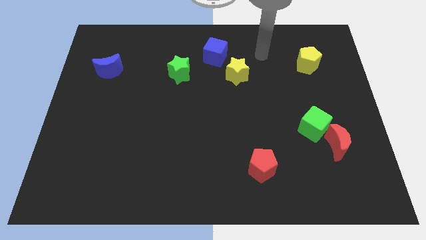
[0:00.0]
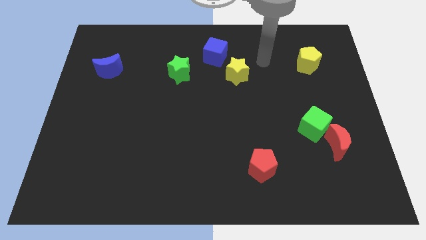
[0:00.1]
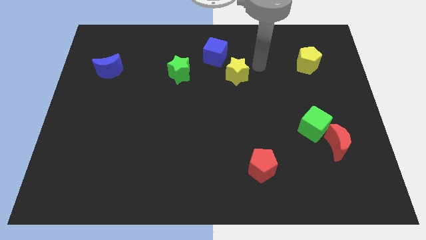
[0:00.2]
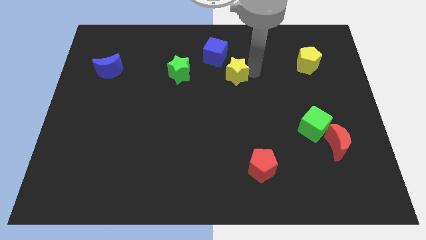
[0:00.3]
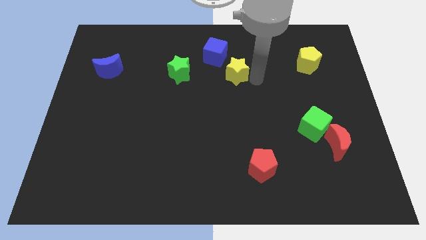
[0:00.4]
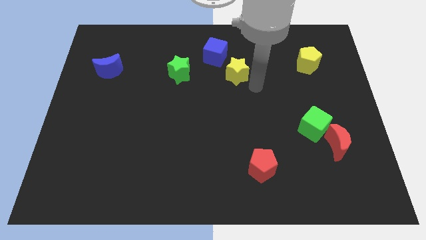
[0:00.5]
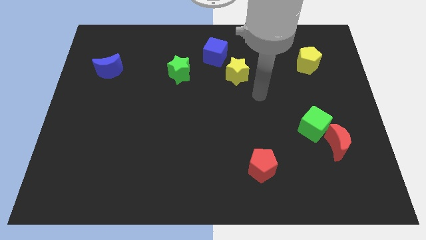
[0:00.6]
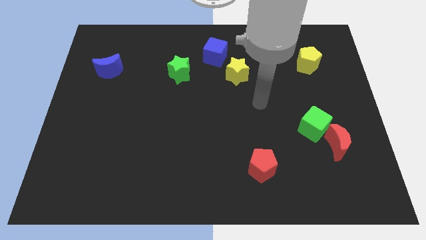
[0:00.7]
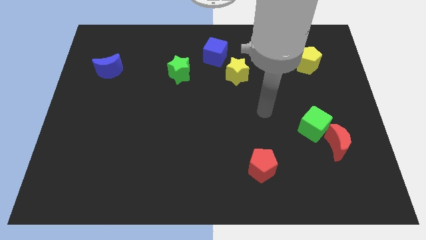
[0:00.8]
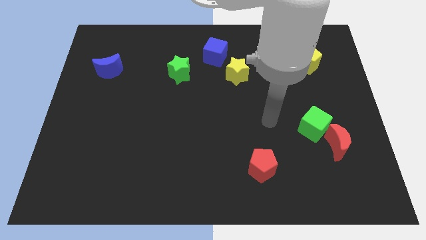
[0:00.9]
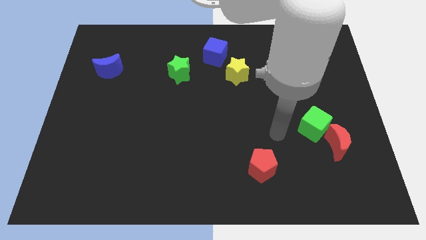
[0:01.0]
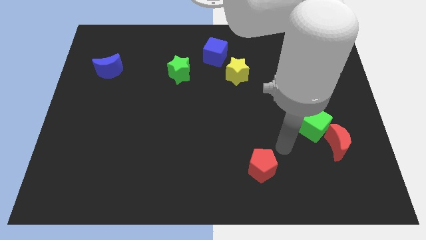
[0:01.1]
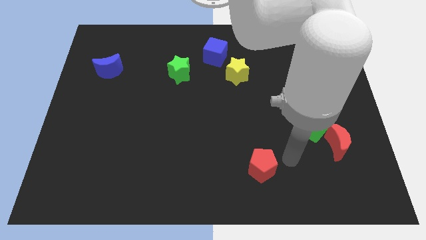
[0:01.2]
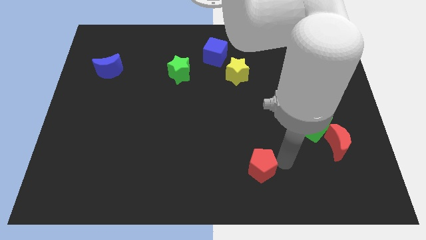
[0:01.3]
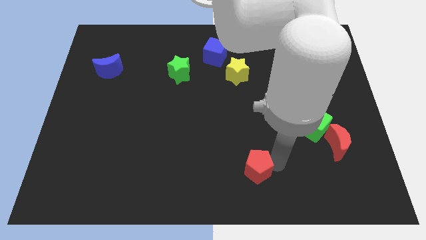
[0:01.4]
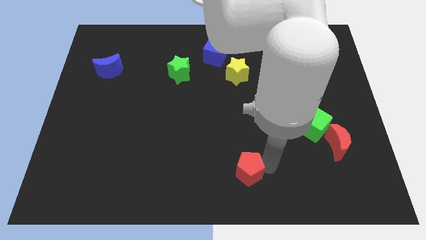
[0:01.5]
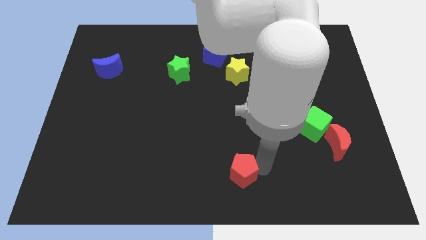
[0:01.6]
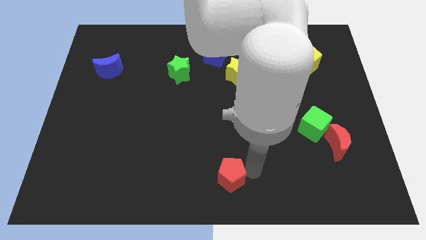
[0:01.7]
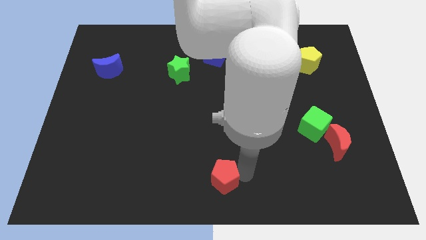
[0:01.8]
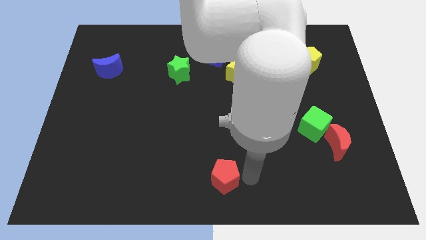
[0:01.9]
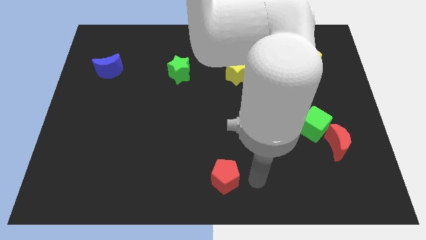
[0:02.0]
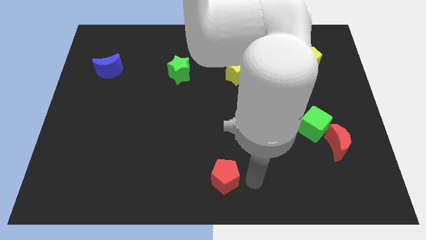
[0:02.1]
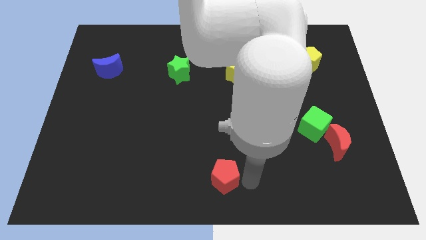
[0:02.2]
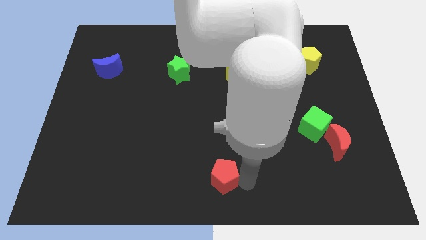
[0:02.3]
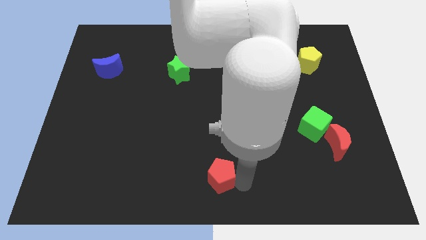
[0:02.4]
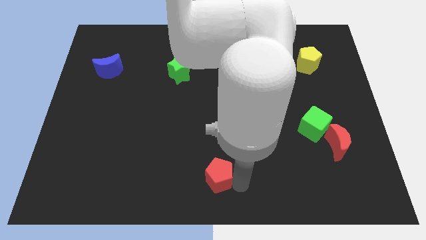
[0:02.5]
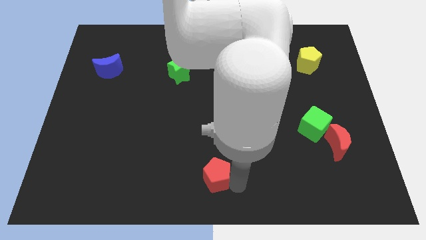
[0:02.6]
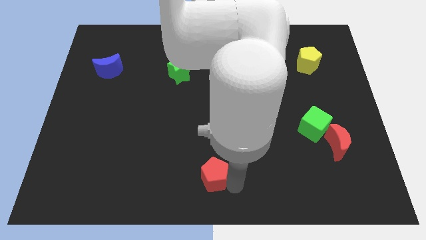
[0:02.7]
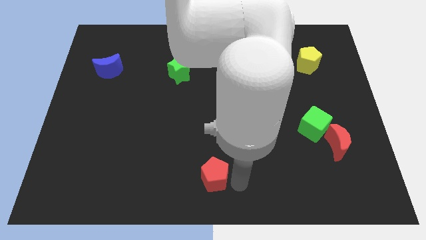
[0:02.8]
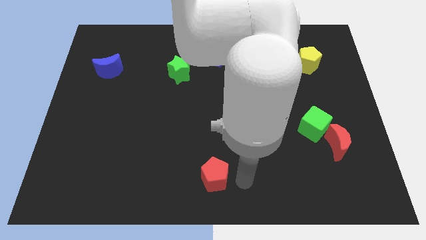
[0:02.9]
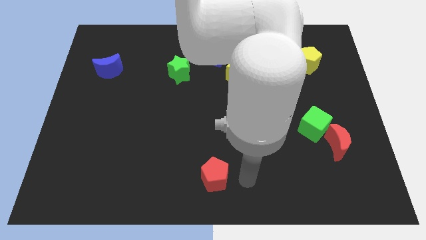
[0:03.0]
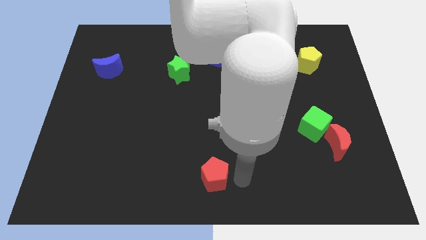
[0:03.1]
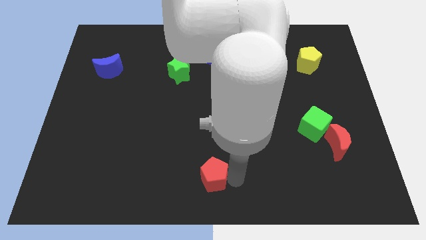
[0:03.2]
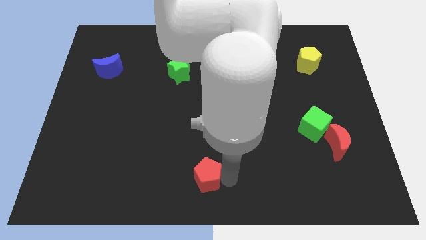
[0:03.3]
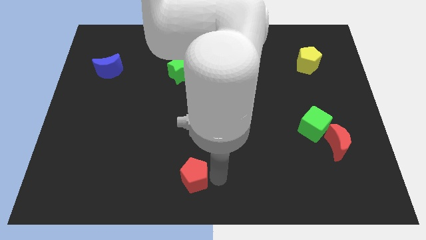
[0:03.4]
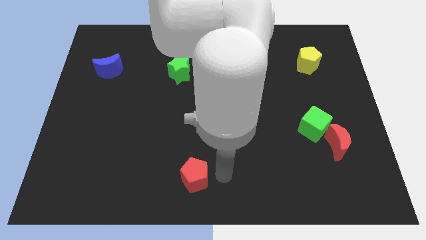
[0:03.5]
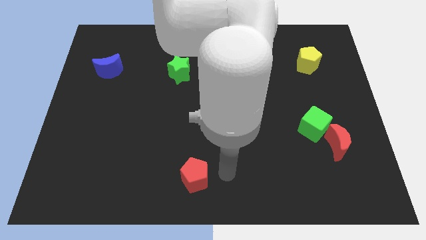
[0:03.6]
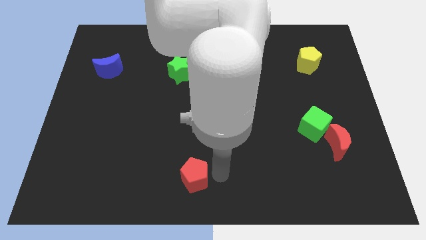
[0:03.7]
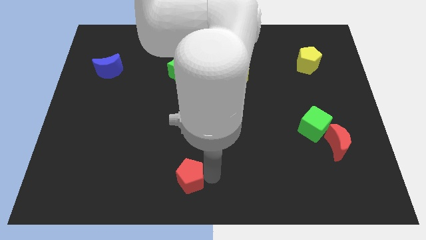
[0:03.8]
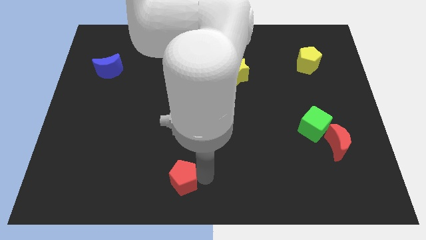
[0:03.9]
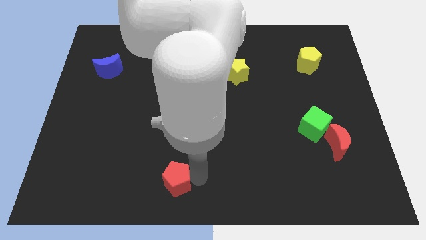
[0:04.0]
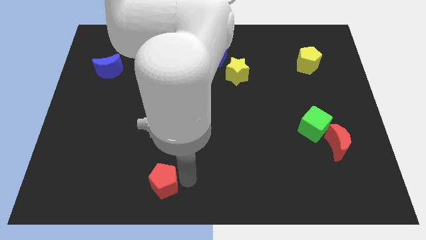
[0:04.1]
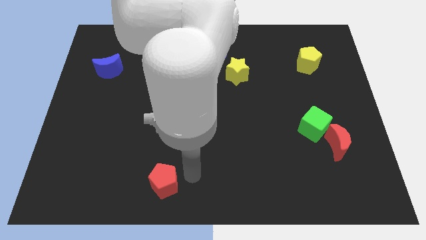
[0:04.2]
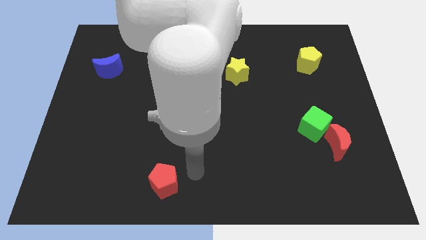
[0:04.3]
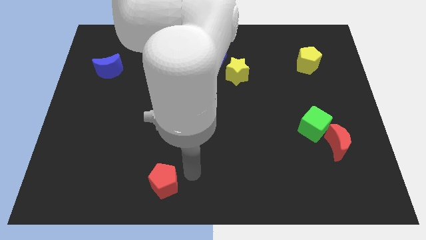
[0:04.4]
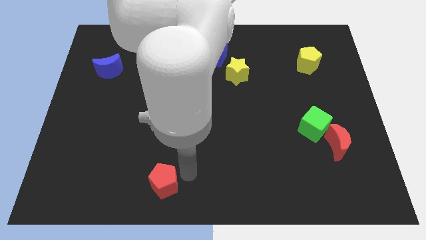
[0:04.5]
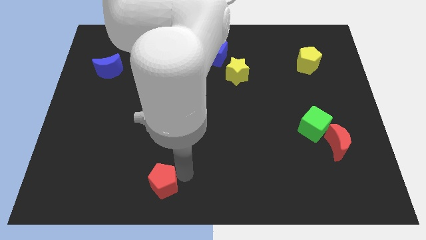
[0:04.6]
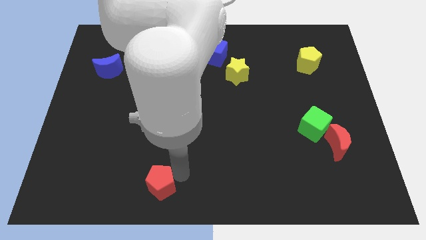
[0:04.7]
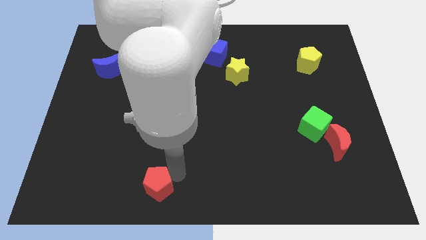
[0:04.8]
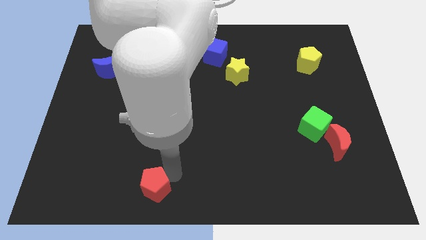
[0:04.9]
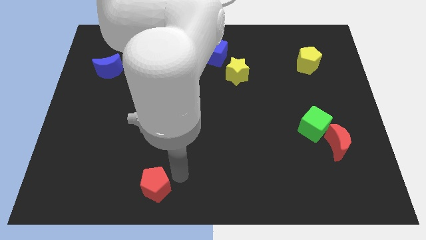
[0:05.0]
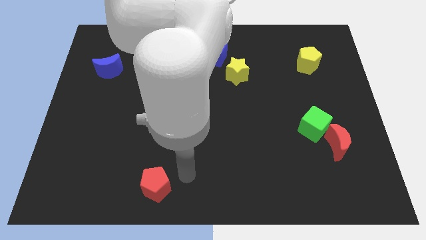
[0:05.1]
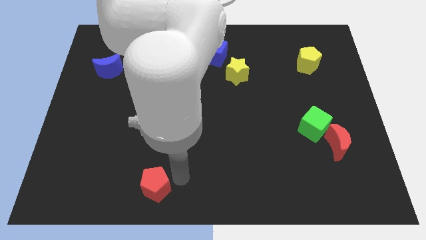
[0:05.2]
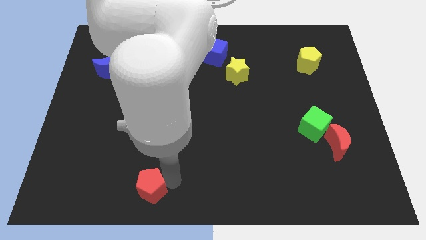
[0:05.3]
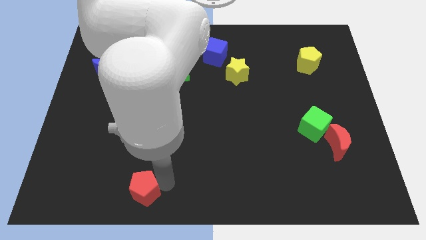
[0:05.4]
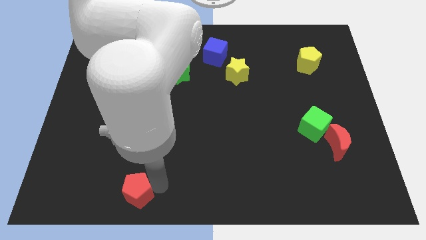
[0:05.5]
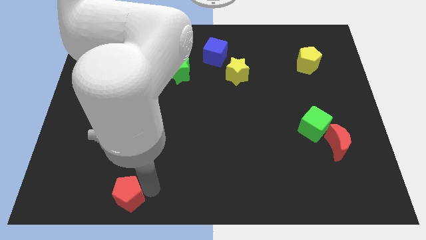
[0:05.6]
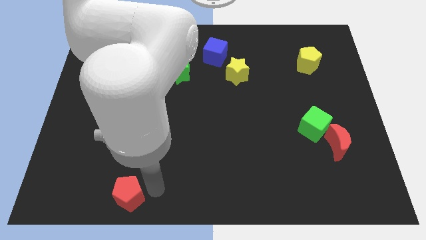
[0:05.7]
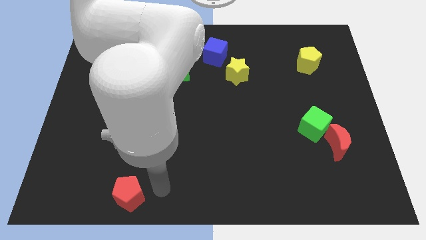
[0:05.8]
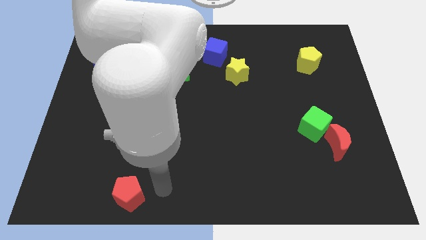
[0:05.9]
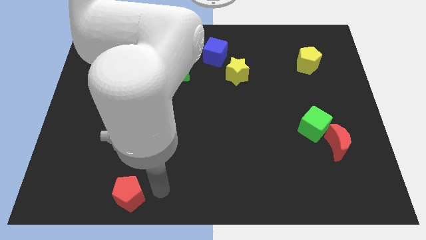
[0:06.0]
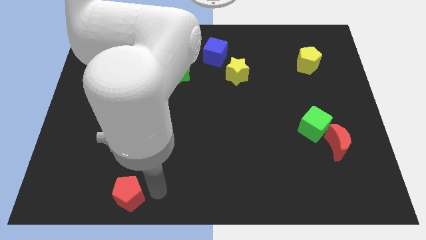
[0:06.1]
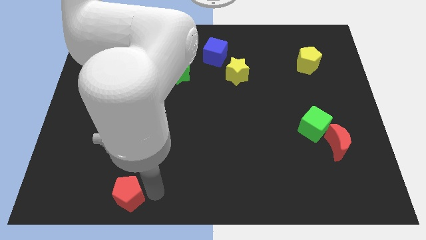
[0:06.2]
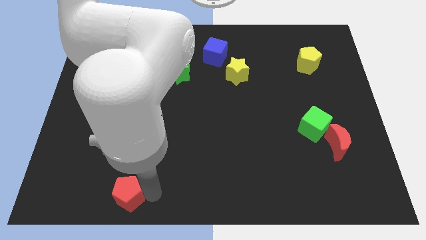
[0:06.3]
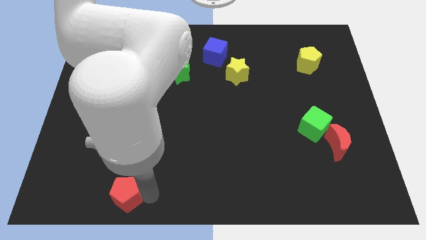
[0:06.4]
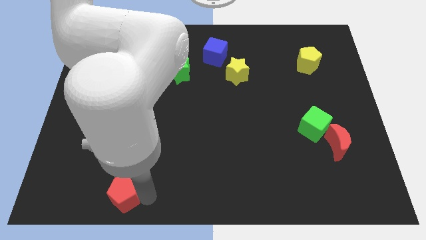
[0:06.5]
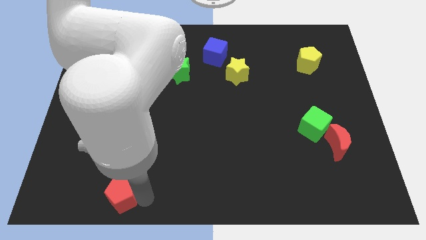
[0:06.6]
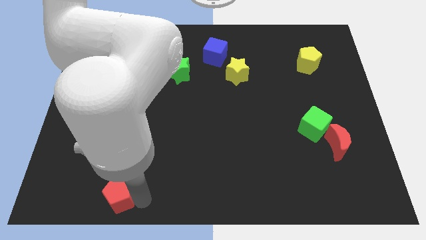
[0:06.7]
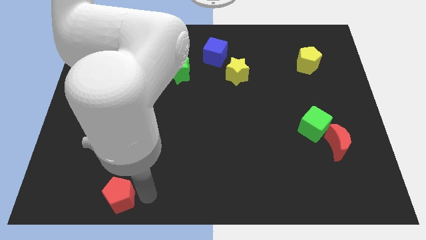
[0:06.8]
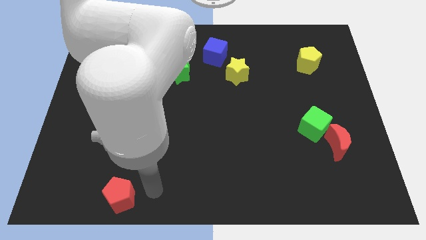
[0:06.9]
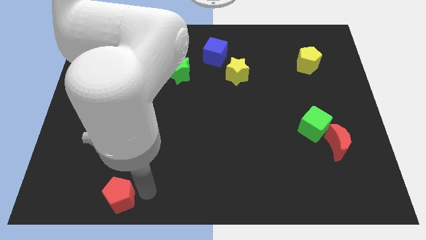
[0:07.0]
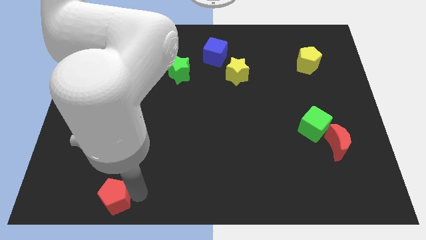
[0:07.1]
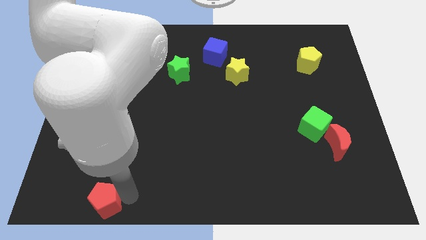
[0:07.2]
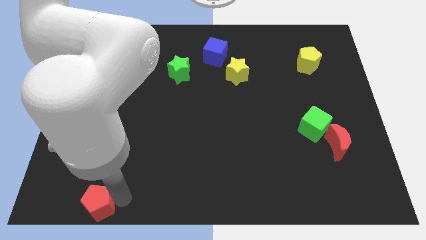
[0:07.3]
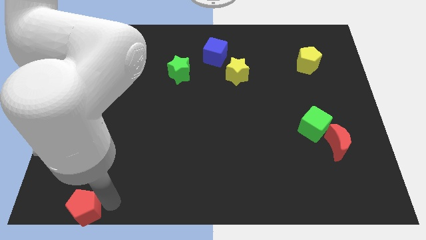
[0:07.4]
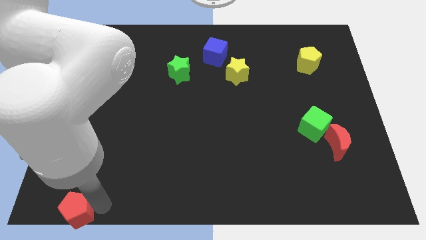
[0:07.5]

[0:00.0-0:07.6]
slide the red pentagon to the bottom left corner
